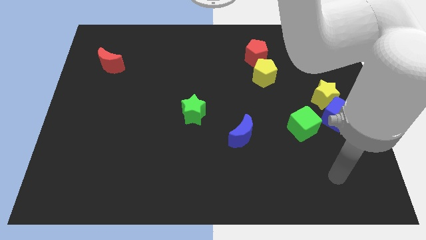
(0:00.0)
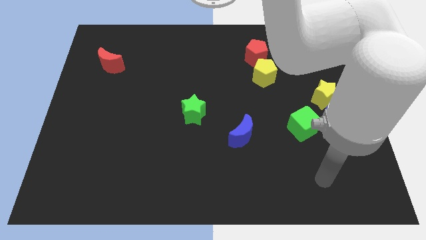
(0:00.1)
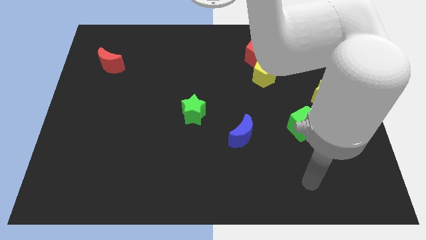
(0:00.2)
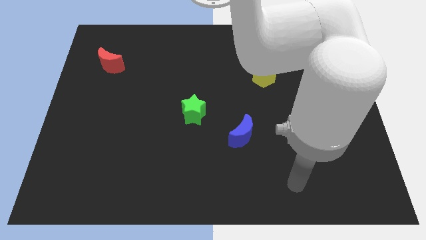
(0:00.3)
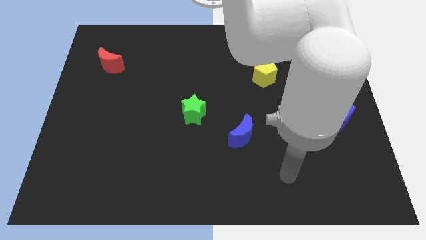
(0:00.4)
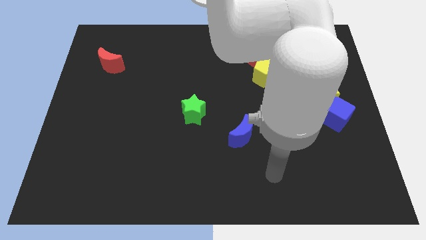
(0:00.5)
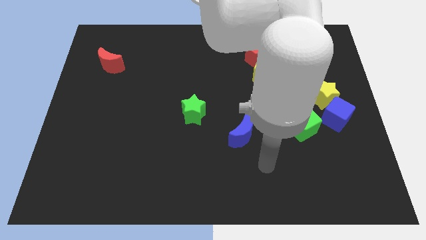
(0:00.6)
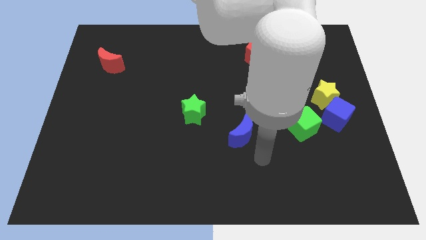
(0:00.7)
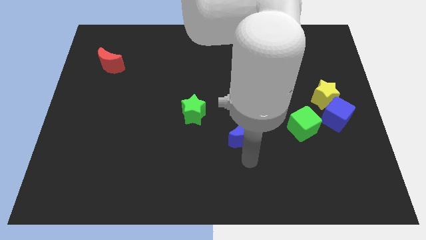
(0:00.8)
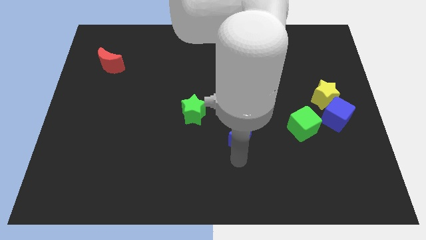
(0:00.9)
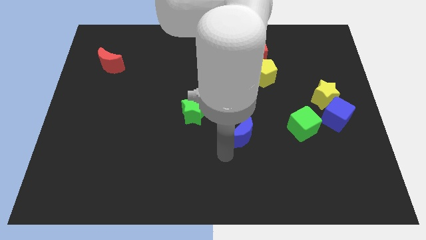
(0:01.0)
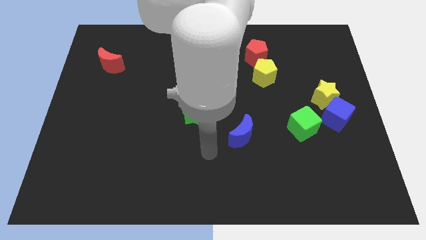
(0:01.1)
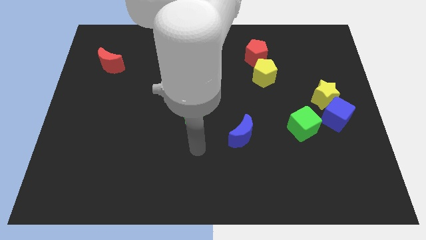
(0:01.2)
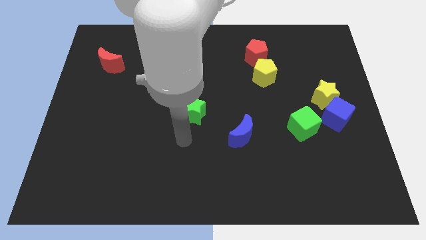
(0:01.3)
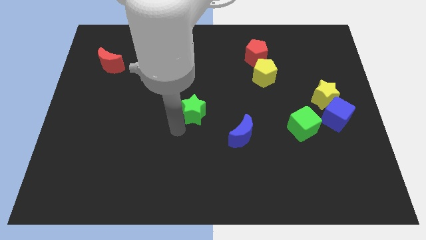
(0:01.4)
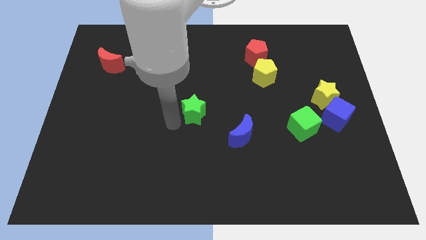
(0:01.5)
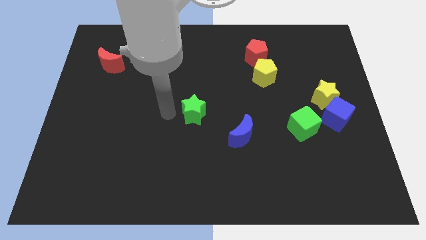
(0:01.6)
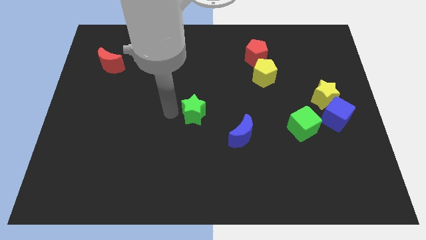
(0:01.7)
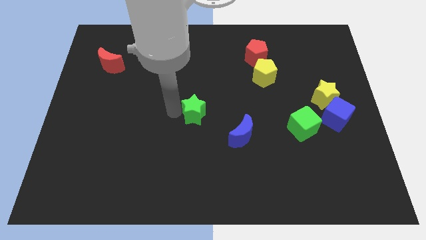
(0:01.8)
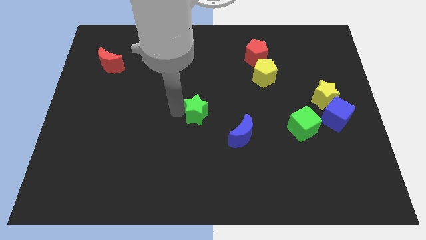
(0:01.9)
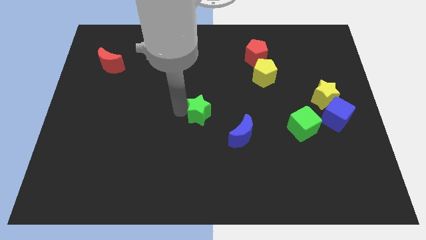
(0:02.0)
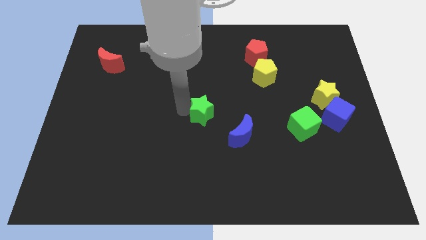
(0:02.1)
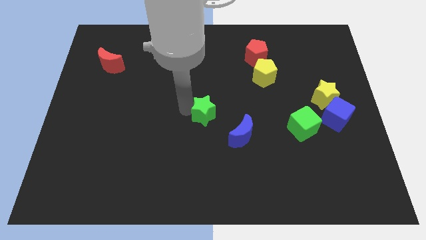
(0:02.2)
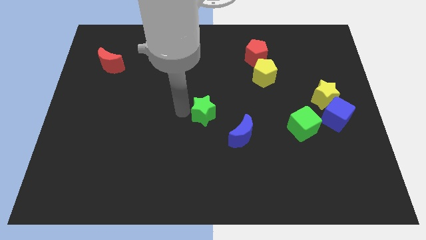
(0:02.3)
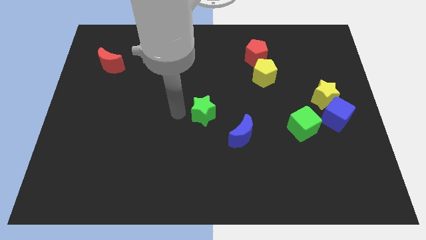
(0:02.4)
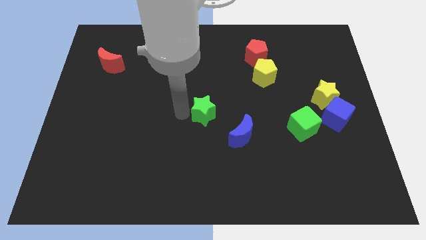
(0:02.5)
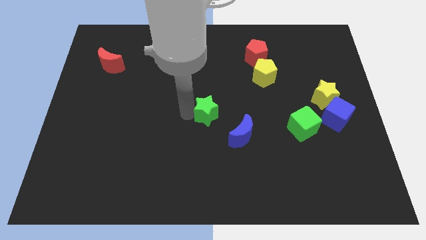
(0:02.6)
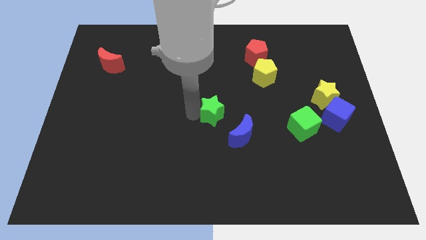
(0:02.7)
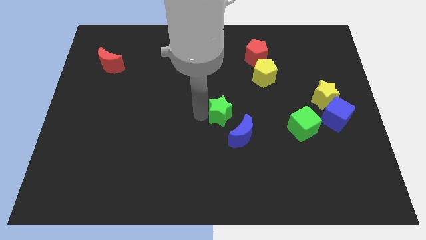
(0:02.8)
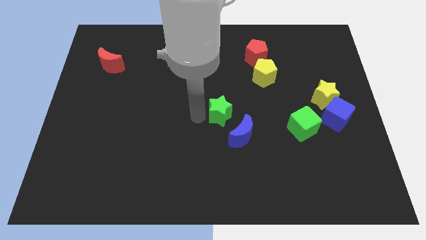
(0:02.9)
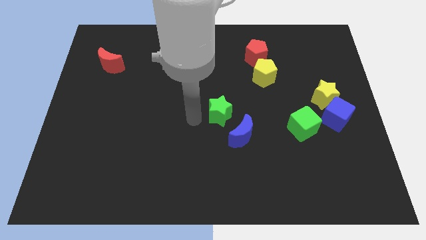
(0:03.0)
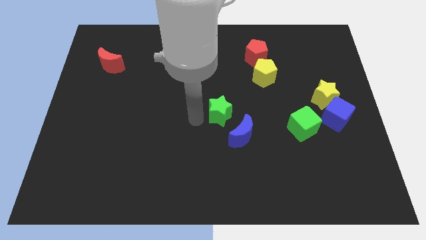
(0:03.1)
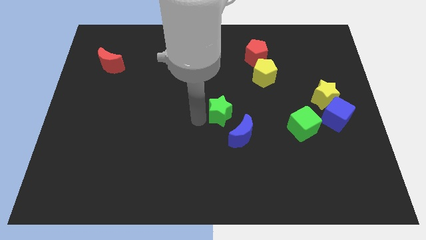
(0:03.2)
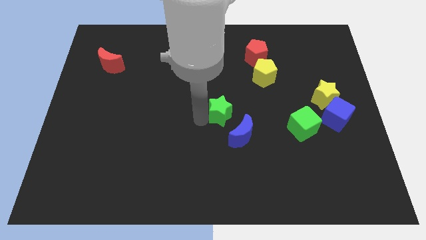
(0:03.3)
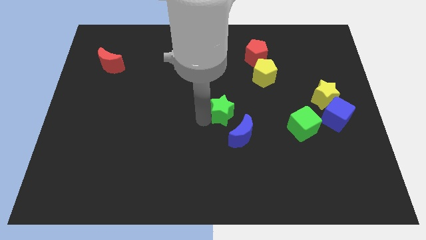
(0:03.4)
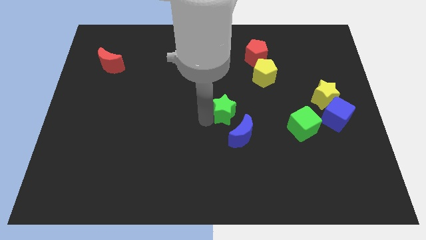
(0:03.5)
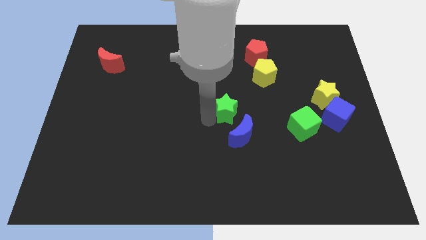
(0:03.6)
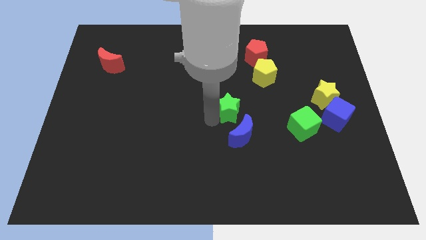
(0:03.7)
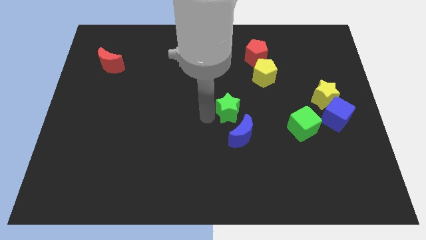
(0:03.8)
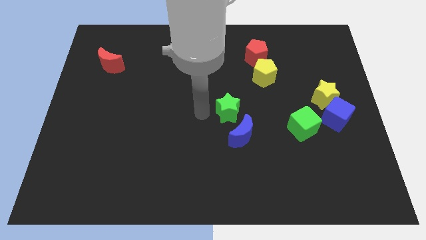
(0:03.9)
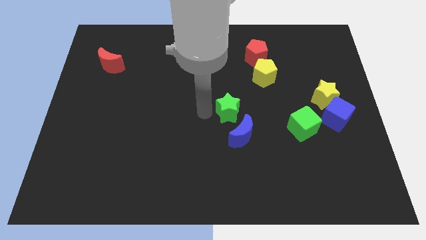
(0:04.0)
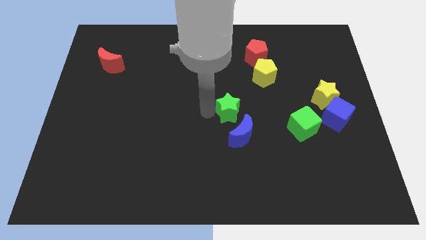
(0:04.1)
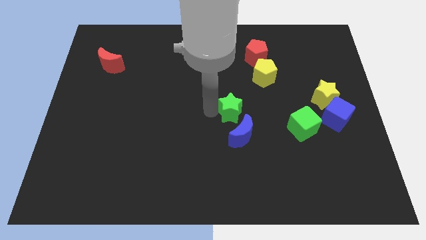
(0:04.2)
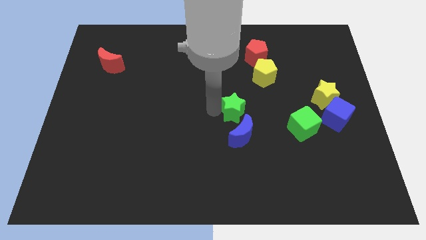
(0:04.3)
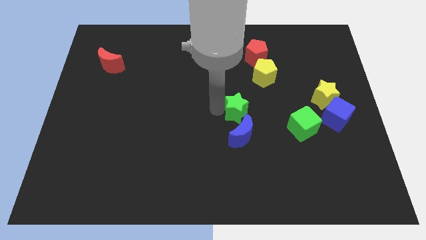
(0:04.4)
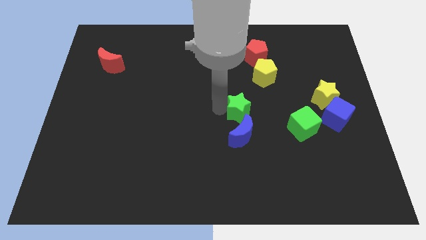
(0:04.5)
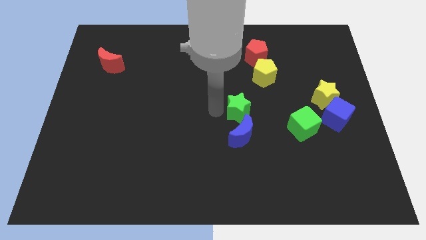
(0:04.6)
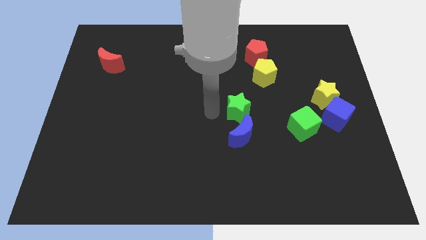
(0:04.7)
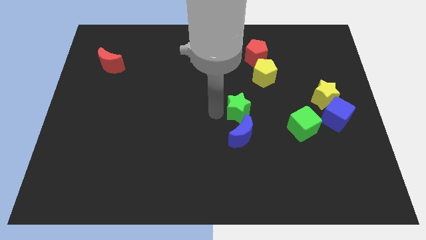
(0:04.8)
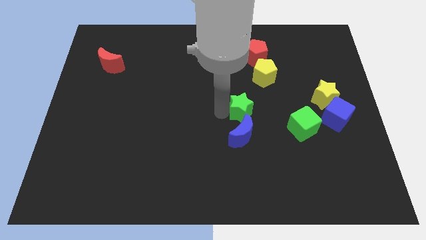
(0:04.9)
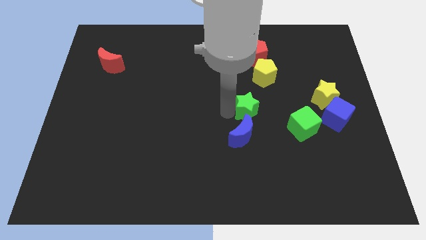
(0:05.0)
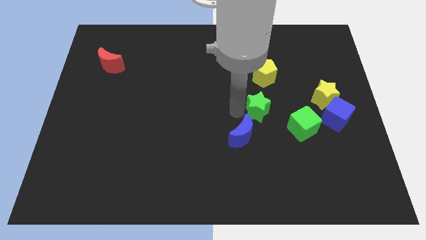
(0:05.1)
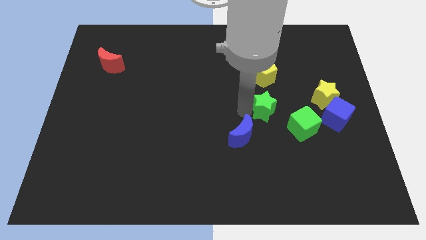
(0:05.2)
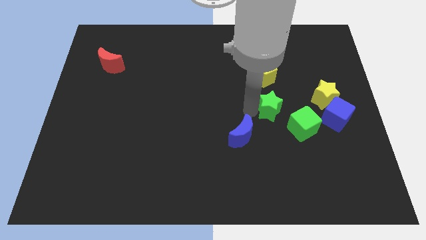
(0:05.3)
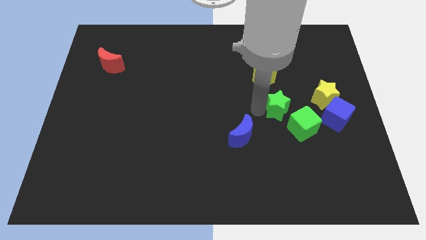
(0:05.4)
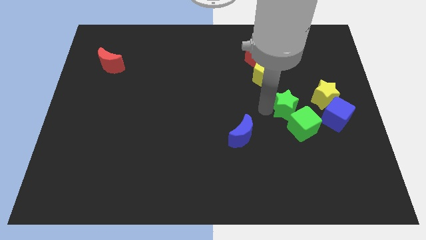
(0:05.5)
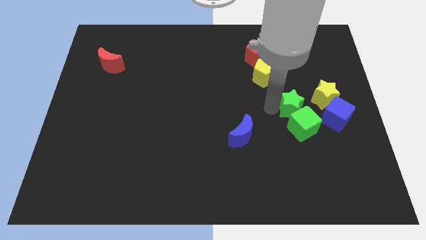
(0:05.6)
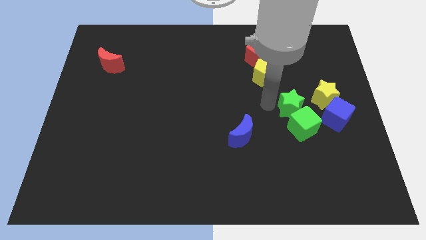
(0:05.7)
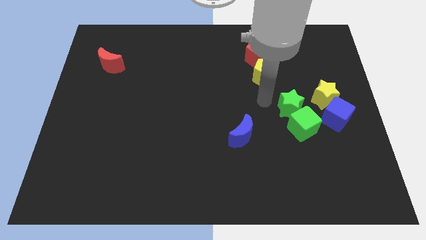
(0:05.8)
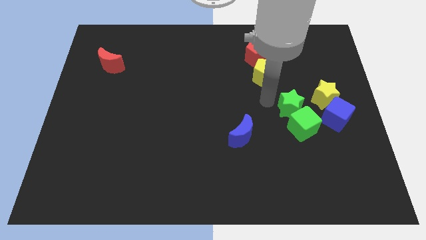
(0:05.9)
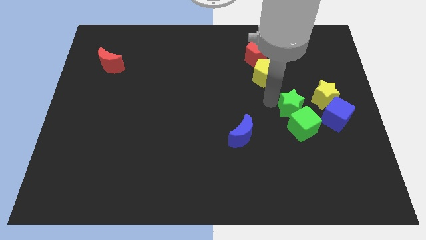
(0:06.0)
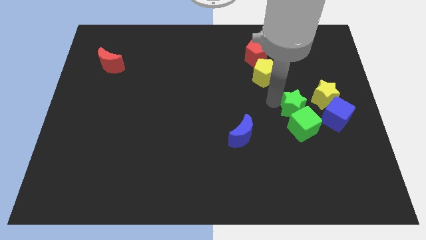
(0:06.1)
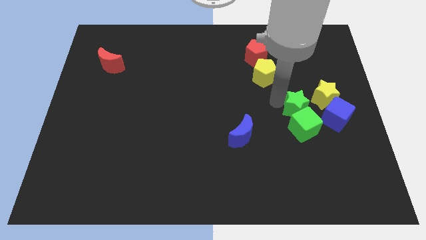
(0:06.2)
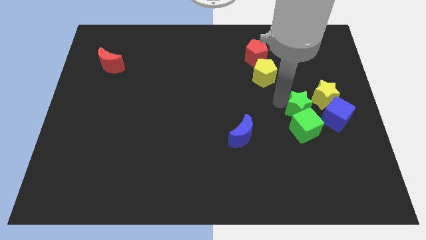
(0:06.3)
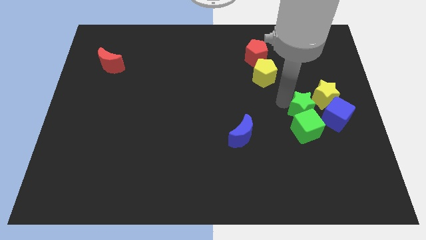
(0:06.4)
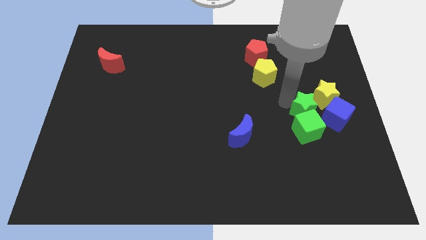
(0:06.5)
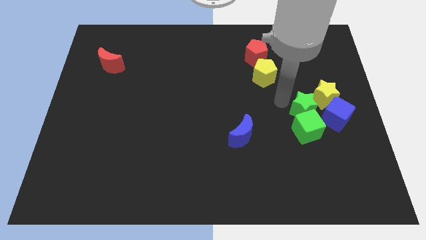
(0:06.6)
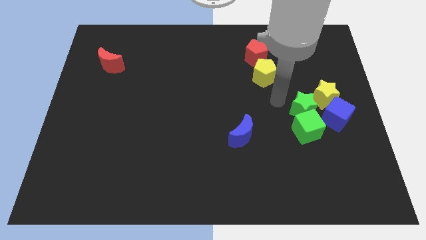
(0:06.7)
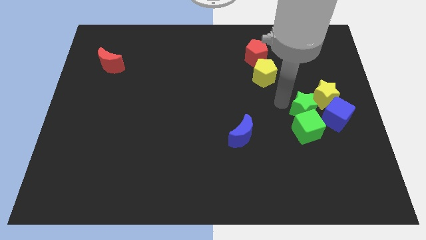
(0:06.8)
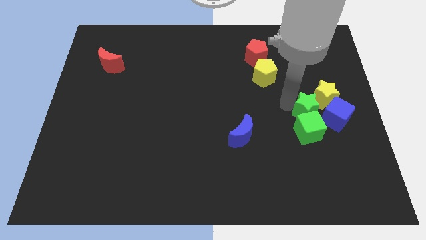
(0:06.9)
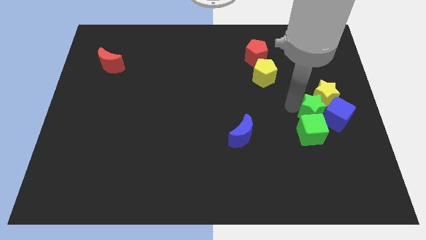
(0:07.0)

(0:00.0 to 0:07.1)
put the green star to the blue cube
